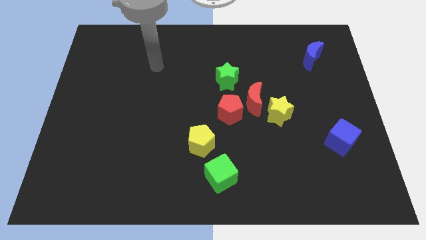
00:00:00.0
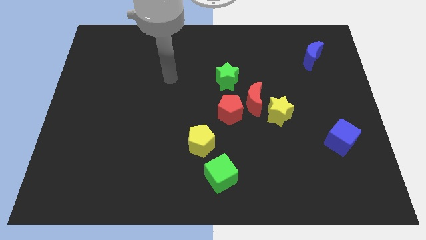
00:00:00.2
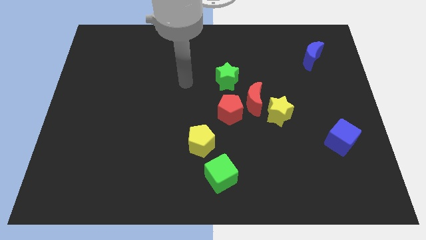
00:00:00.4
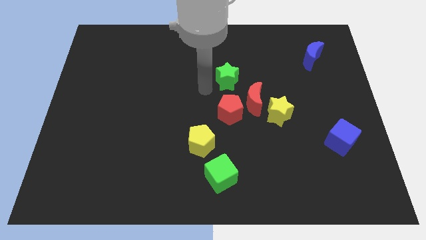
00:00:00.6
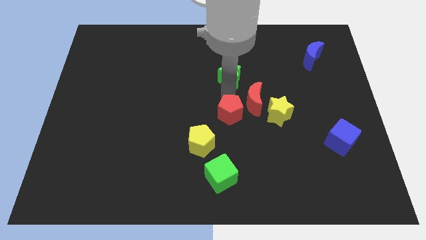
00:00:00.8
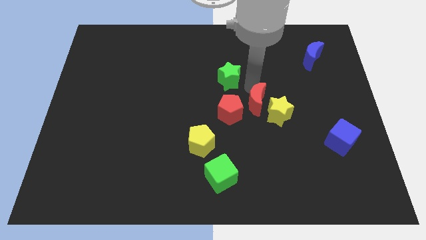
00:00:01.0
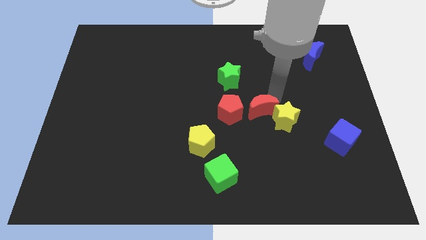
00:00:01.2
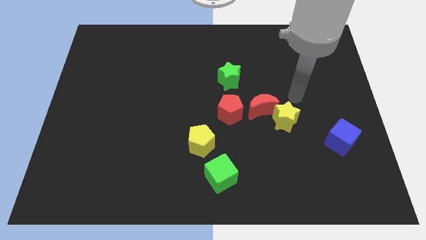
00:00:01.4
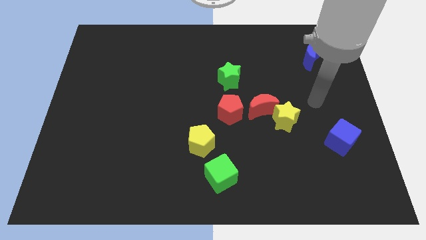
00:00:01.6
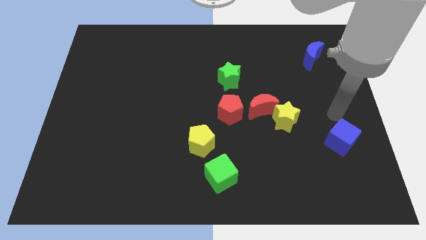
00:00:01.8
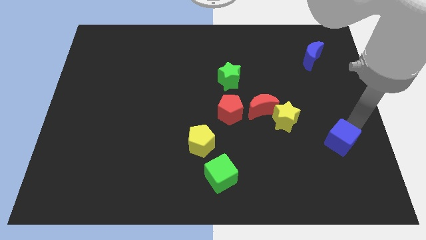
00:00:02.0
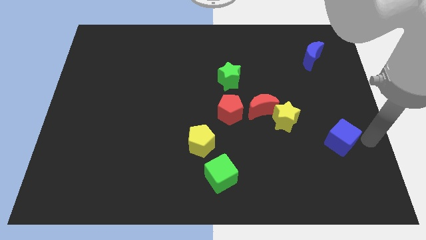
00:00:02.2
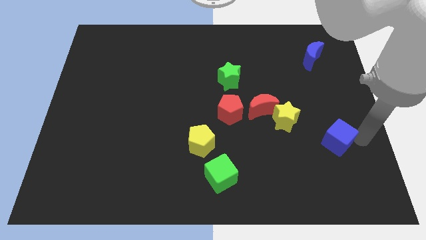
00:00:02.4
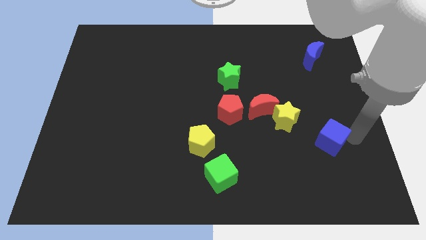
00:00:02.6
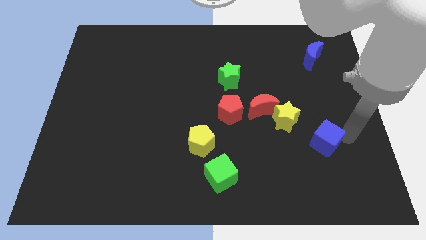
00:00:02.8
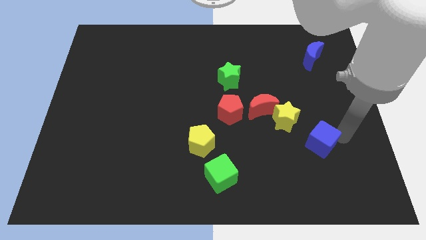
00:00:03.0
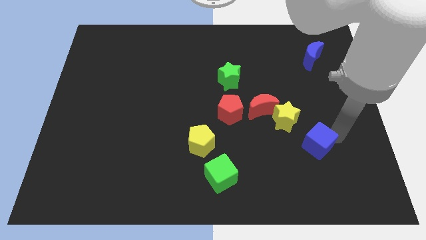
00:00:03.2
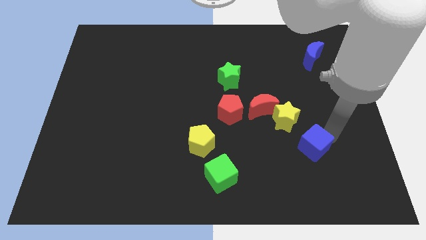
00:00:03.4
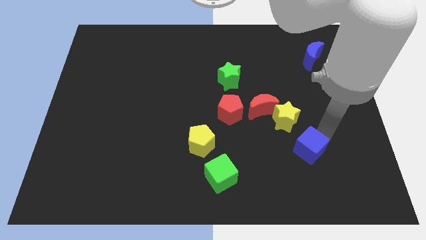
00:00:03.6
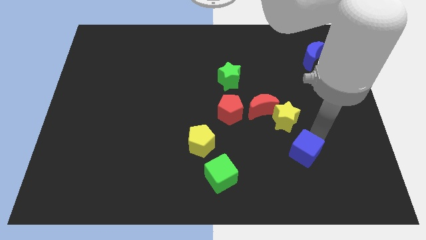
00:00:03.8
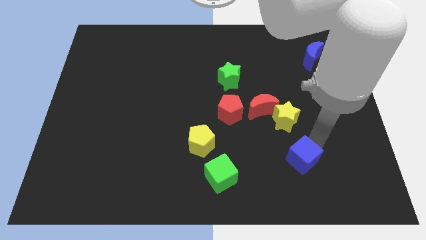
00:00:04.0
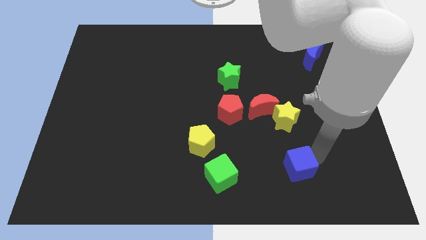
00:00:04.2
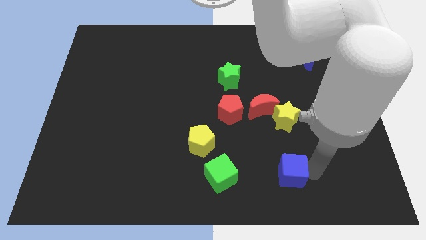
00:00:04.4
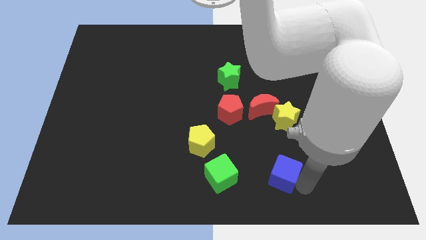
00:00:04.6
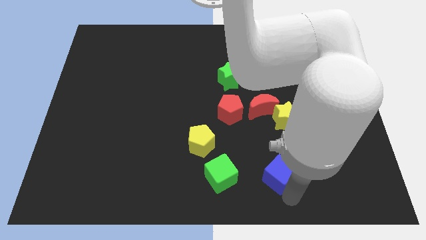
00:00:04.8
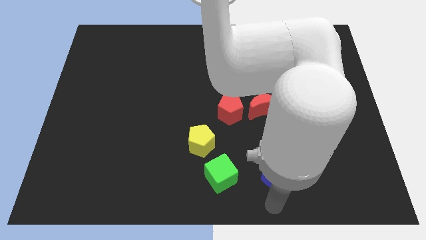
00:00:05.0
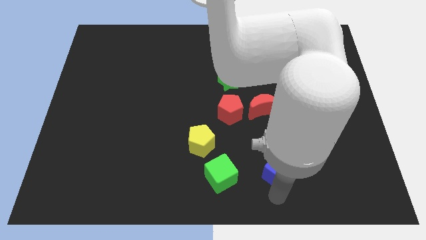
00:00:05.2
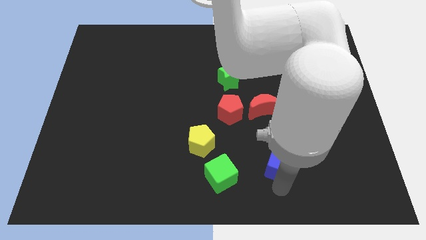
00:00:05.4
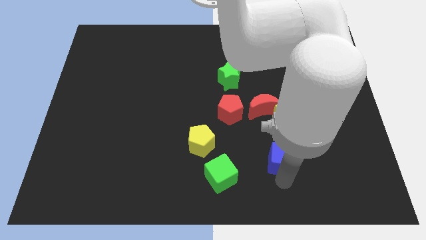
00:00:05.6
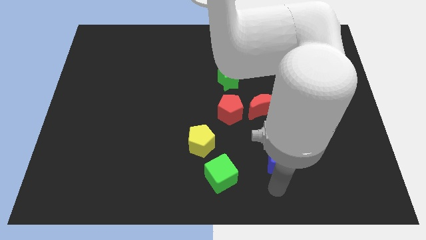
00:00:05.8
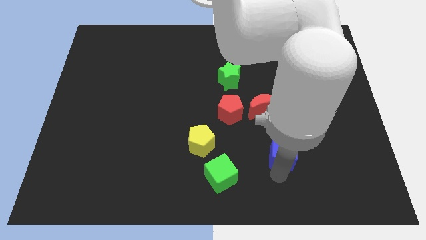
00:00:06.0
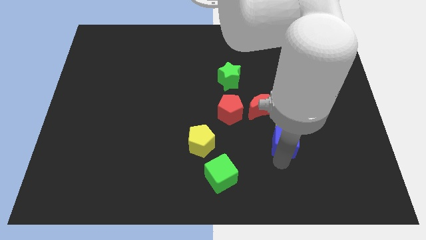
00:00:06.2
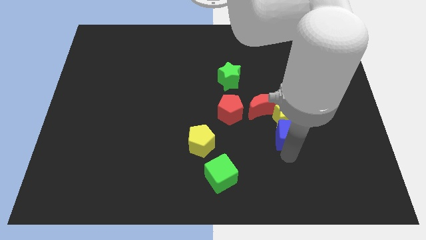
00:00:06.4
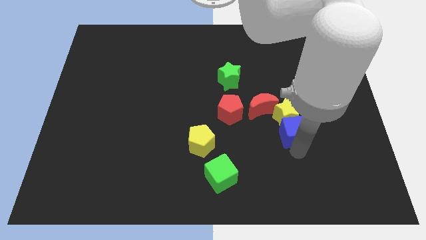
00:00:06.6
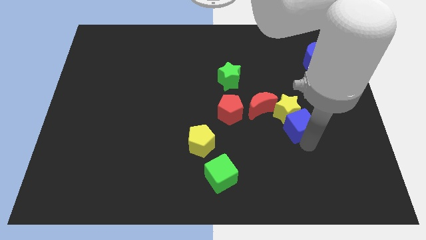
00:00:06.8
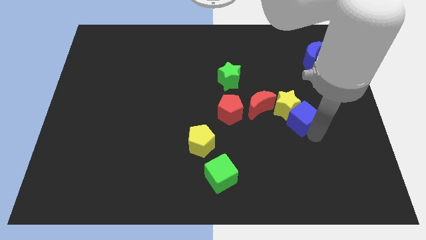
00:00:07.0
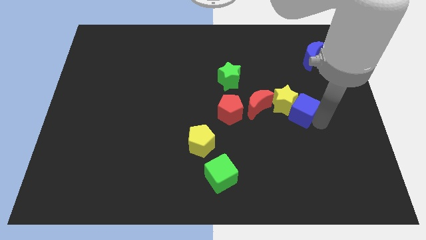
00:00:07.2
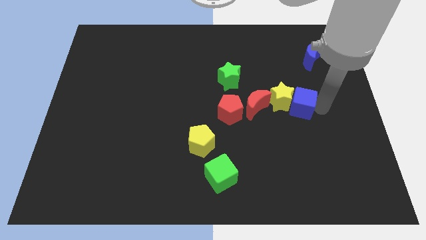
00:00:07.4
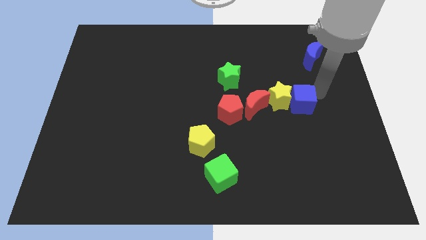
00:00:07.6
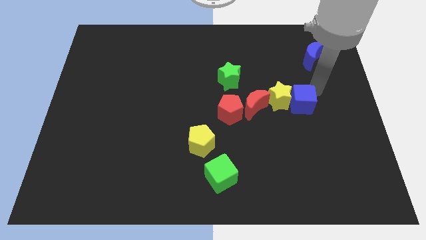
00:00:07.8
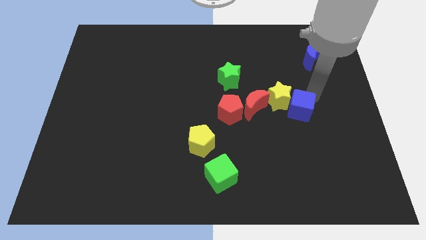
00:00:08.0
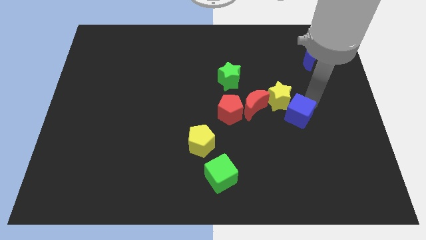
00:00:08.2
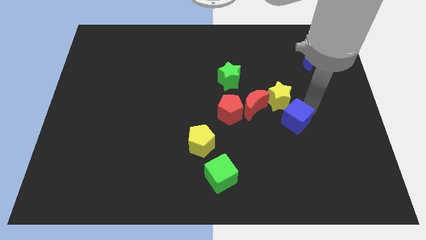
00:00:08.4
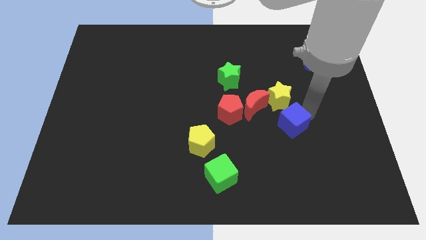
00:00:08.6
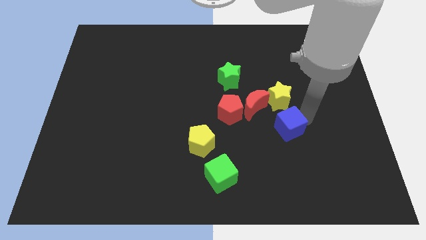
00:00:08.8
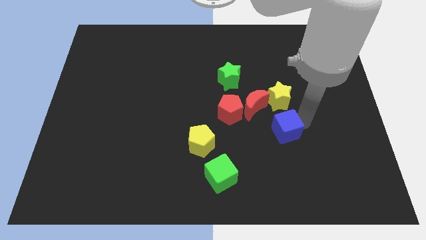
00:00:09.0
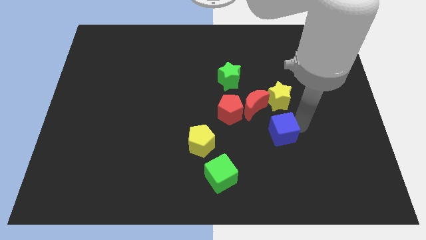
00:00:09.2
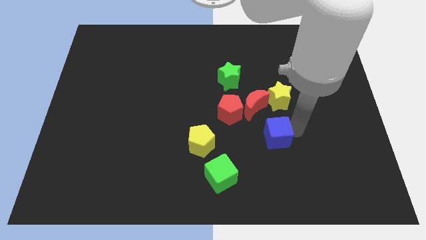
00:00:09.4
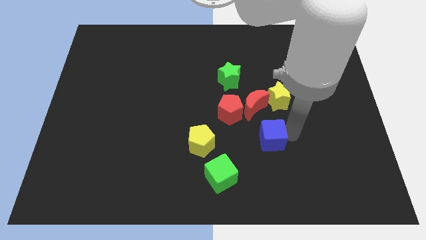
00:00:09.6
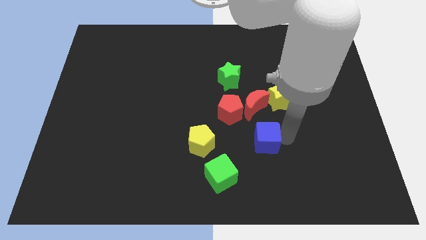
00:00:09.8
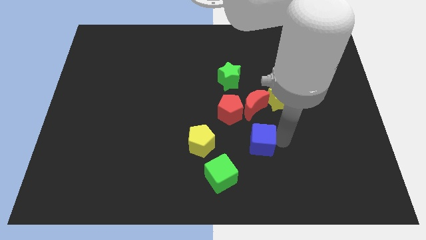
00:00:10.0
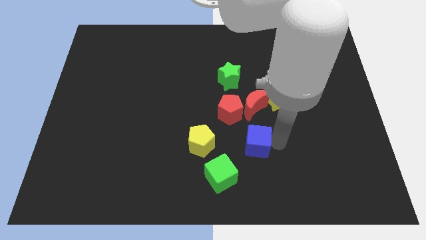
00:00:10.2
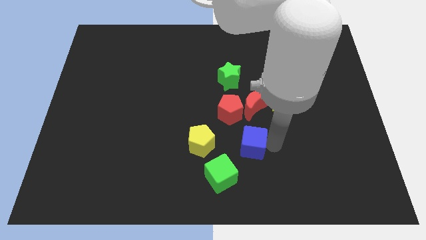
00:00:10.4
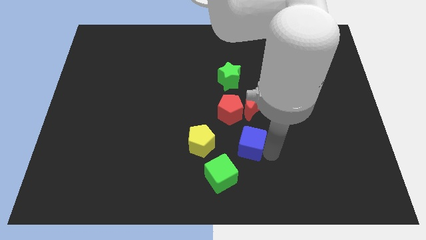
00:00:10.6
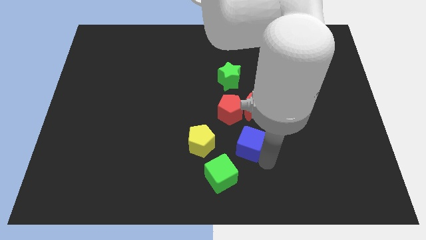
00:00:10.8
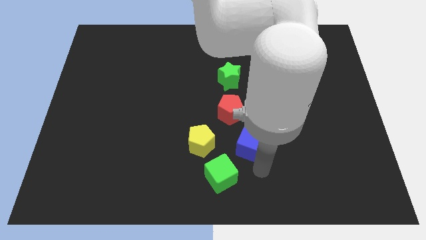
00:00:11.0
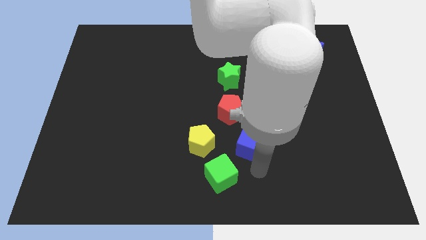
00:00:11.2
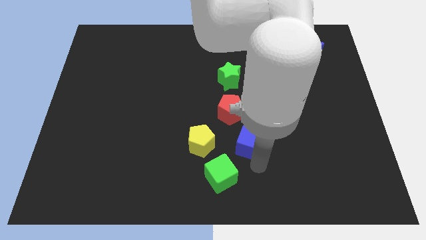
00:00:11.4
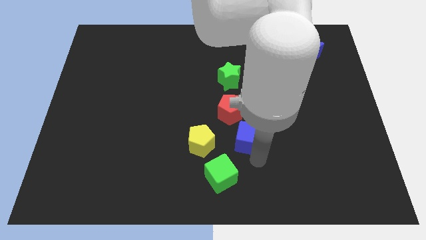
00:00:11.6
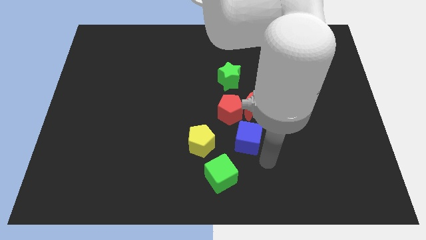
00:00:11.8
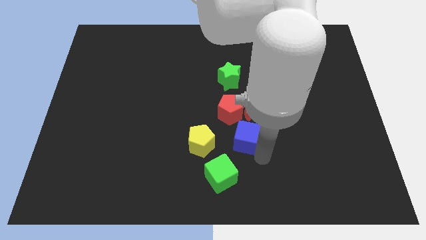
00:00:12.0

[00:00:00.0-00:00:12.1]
slide the blue cube diagonally down and to the left of the red moon

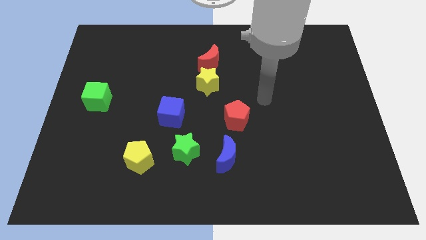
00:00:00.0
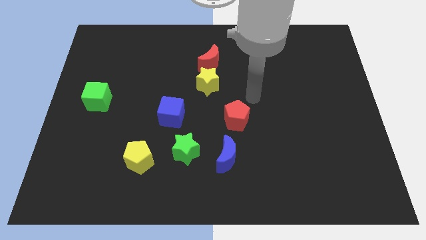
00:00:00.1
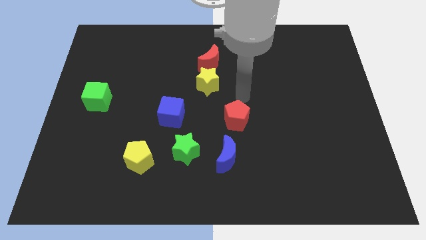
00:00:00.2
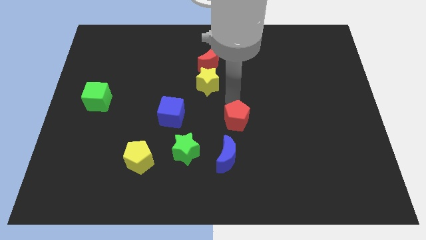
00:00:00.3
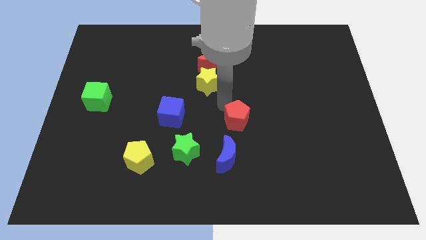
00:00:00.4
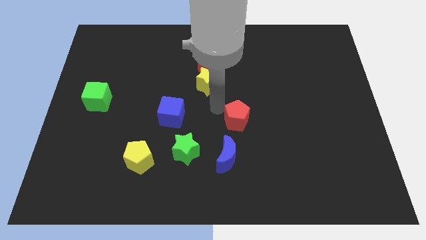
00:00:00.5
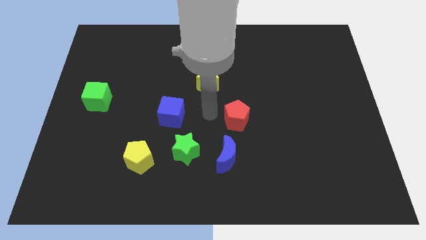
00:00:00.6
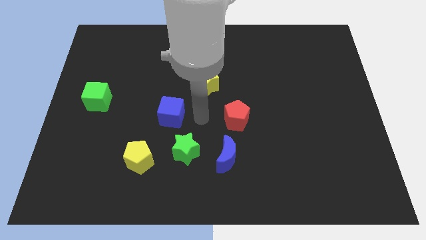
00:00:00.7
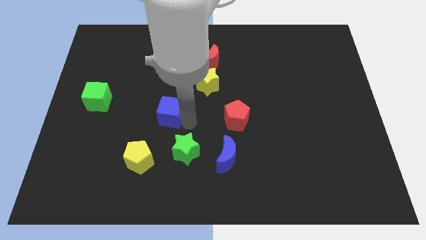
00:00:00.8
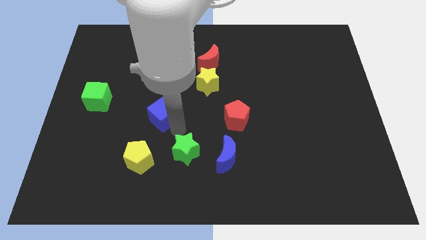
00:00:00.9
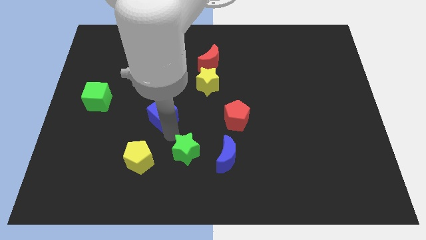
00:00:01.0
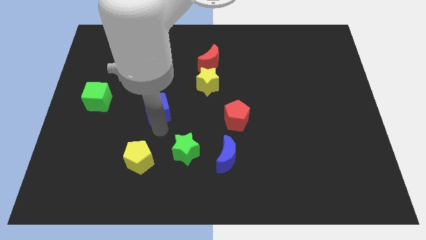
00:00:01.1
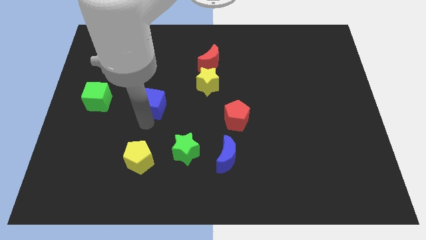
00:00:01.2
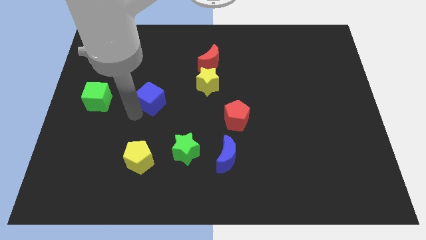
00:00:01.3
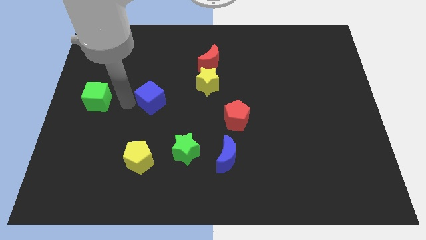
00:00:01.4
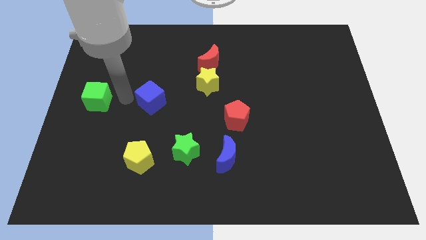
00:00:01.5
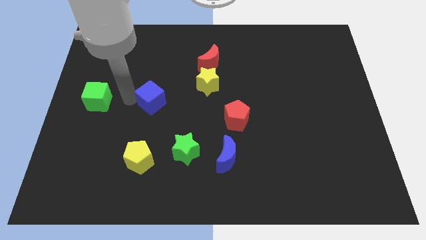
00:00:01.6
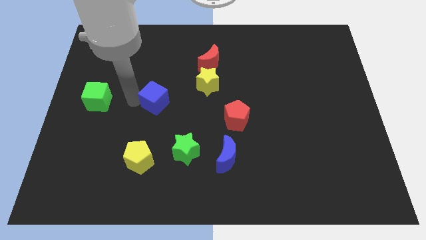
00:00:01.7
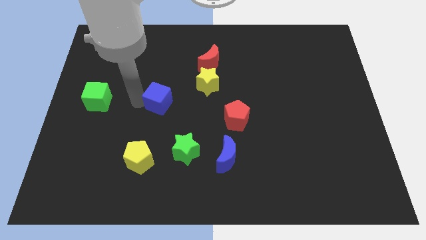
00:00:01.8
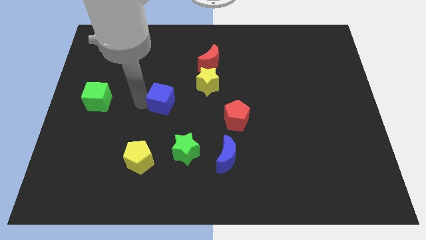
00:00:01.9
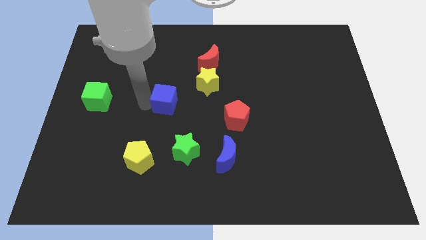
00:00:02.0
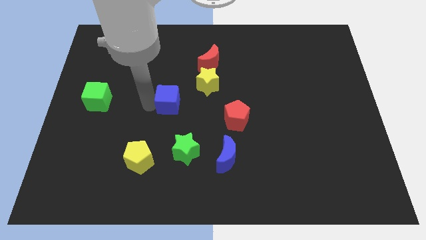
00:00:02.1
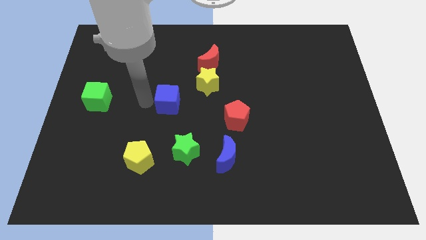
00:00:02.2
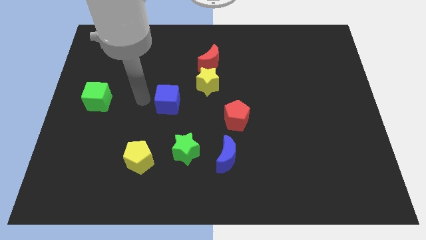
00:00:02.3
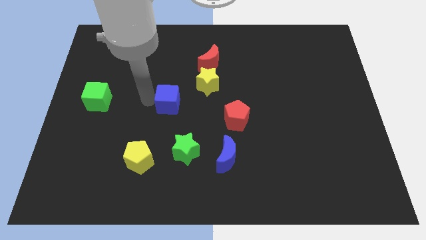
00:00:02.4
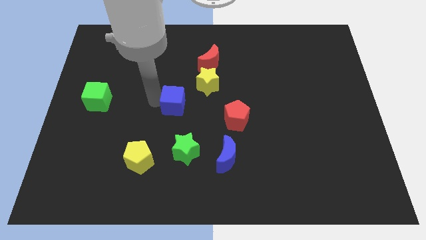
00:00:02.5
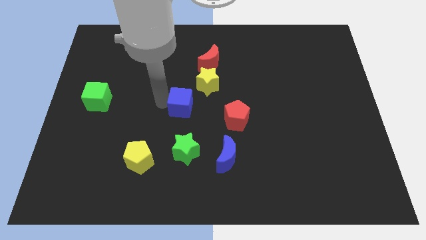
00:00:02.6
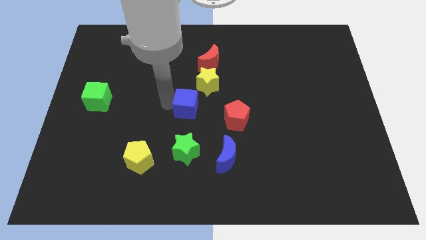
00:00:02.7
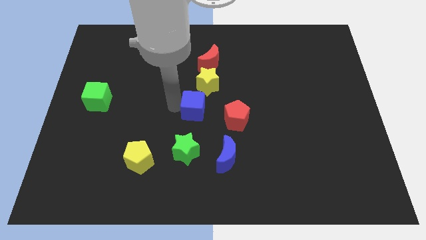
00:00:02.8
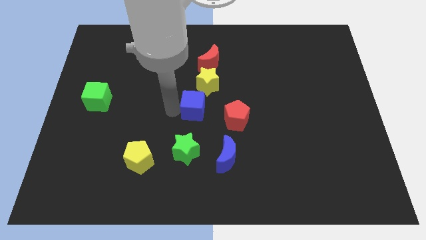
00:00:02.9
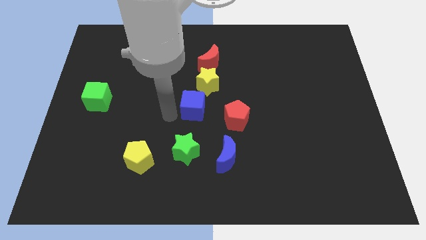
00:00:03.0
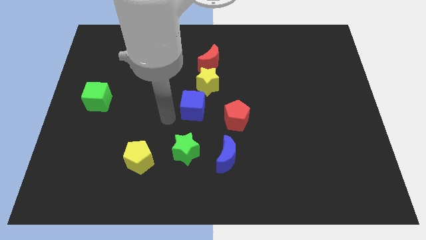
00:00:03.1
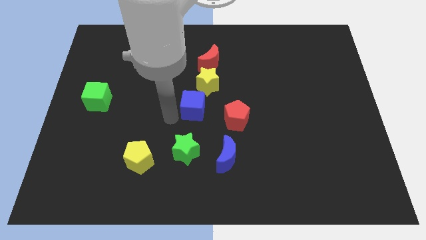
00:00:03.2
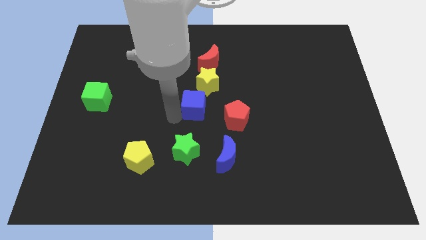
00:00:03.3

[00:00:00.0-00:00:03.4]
move the blue cube to the top left of the red pentagon
